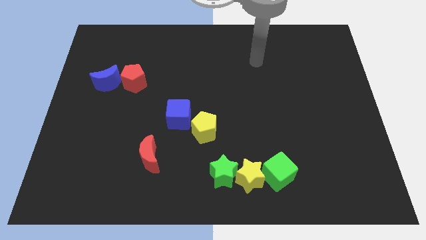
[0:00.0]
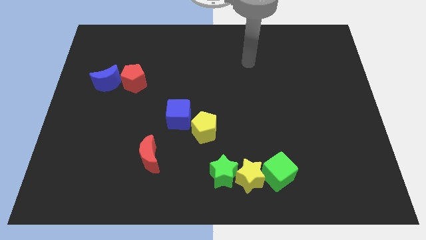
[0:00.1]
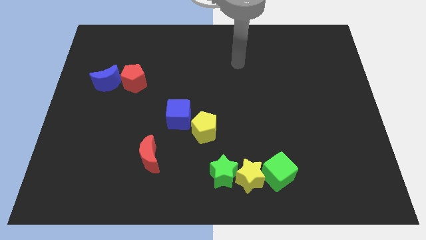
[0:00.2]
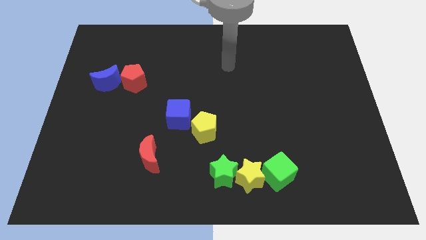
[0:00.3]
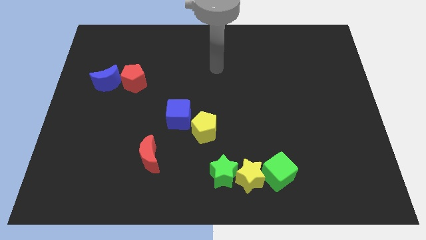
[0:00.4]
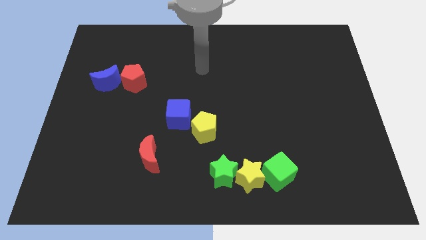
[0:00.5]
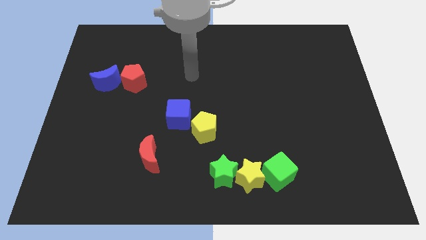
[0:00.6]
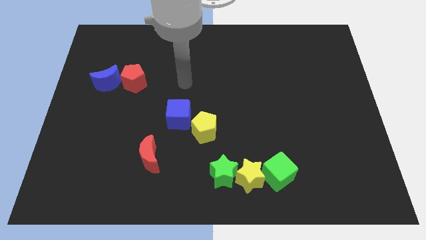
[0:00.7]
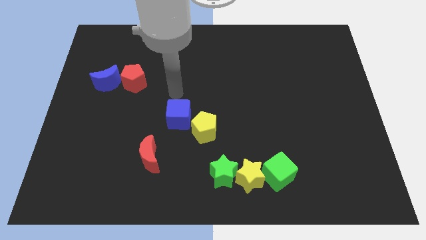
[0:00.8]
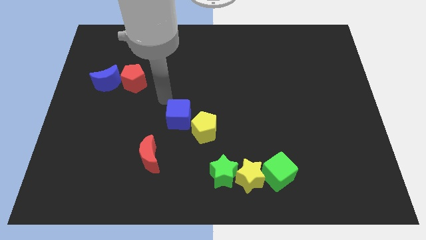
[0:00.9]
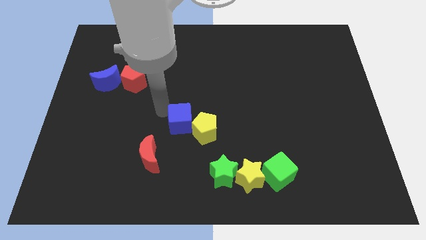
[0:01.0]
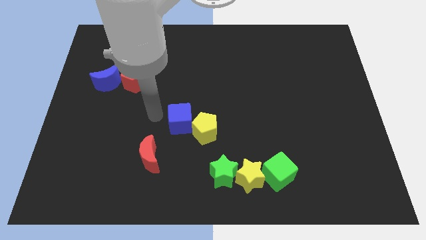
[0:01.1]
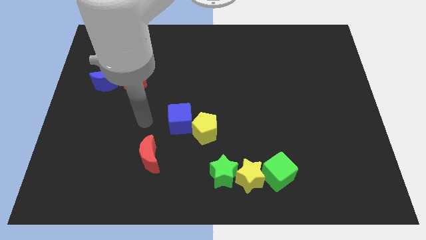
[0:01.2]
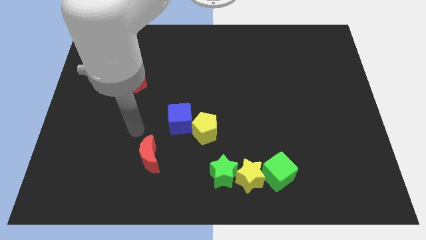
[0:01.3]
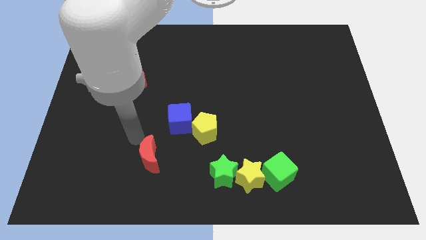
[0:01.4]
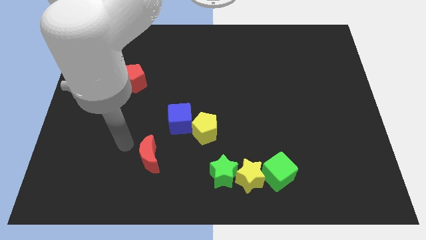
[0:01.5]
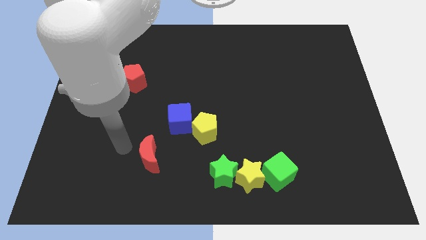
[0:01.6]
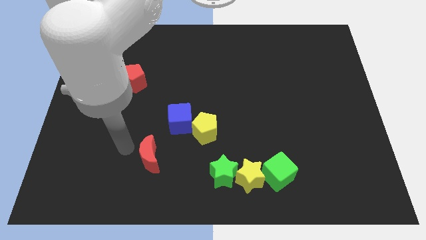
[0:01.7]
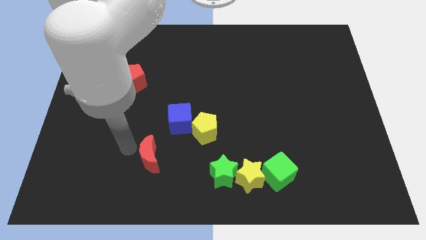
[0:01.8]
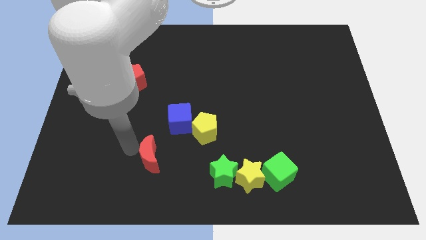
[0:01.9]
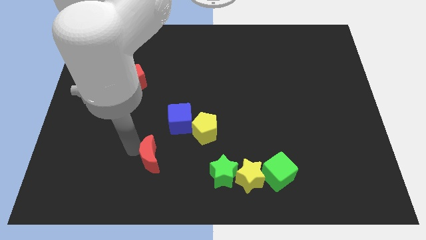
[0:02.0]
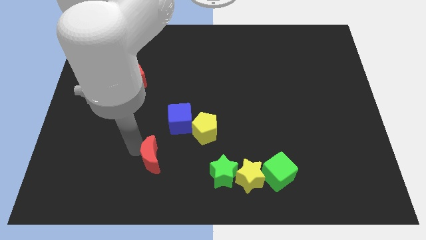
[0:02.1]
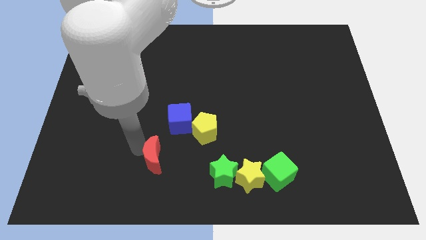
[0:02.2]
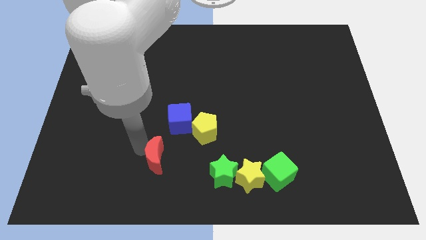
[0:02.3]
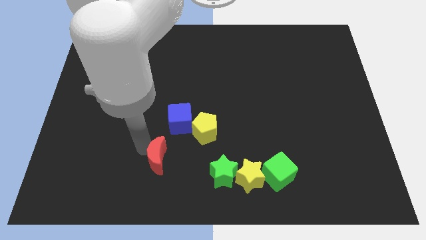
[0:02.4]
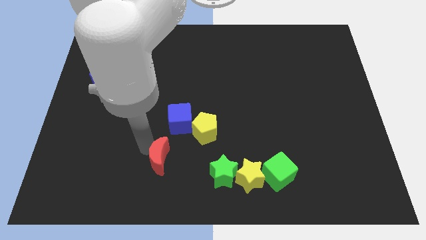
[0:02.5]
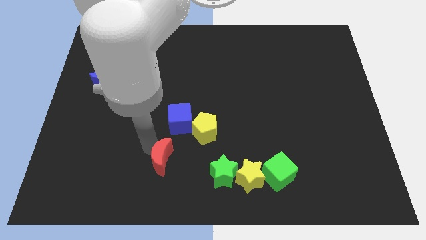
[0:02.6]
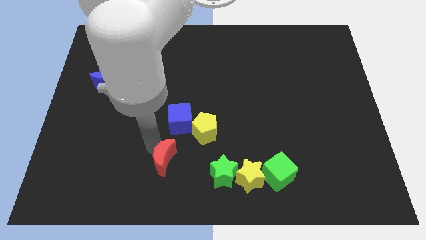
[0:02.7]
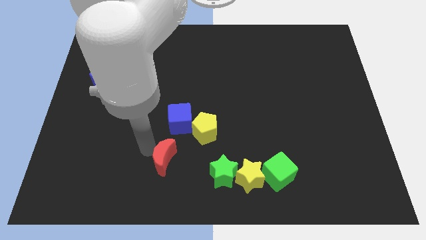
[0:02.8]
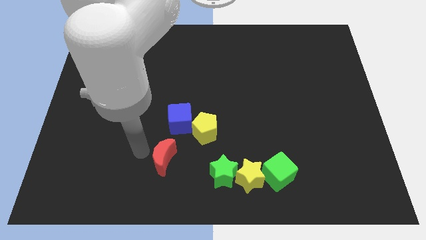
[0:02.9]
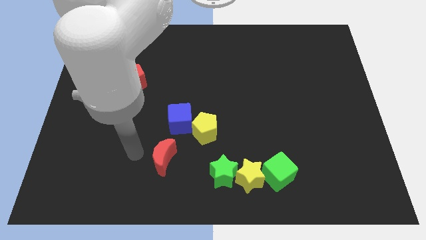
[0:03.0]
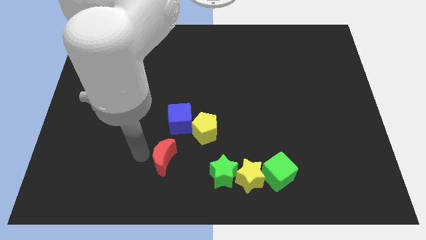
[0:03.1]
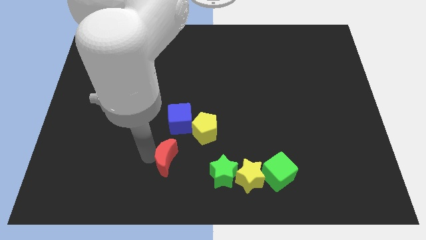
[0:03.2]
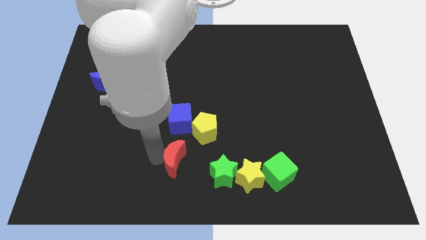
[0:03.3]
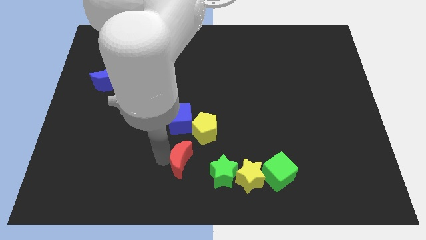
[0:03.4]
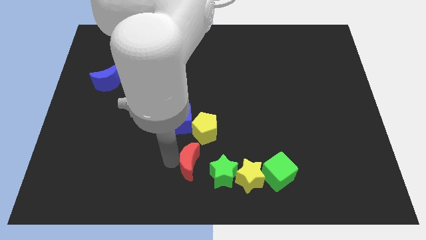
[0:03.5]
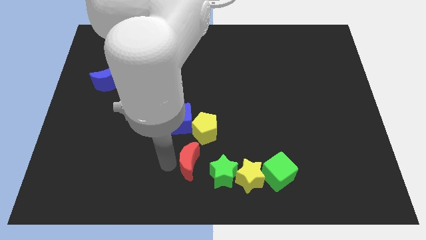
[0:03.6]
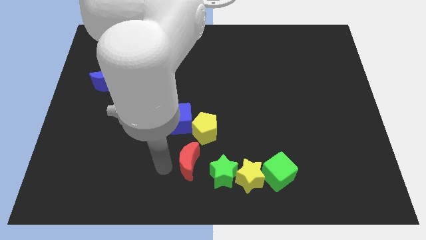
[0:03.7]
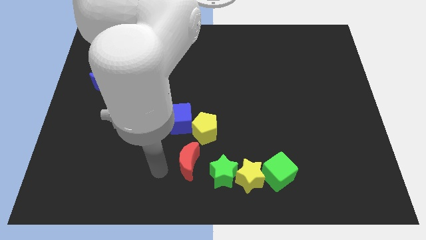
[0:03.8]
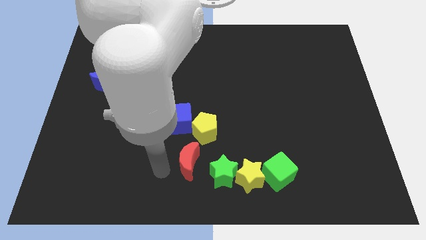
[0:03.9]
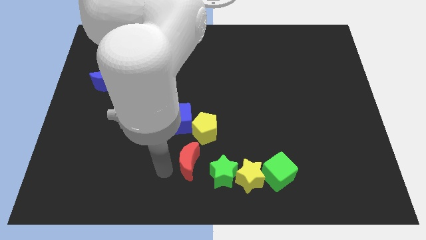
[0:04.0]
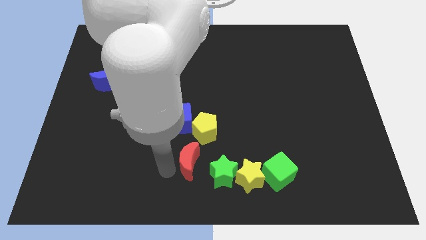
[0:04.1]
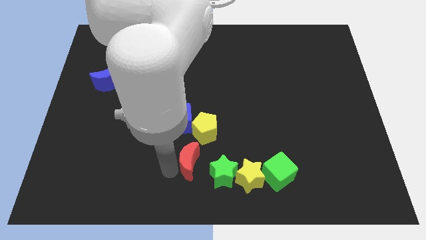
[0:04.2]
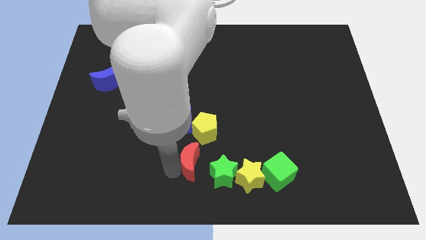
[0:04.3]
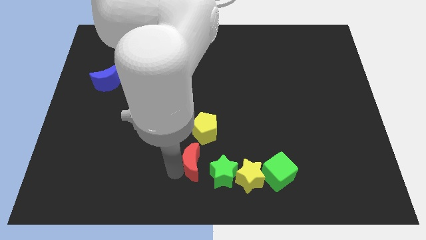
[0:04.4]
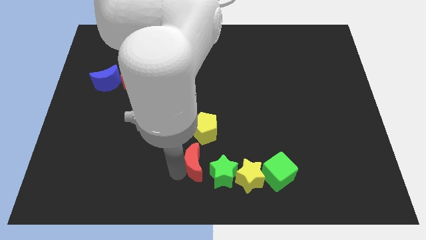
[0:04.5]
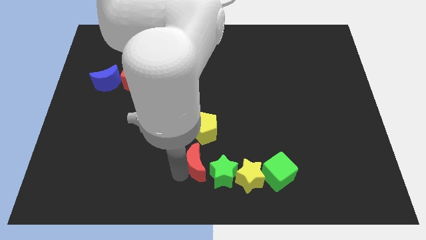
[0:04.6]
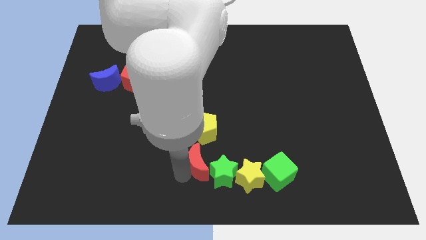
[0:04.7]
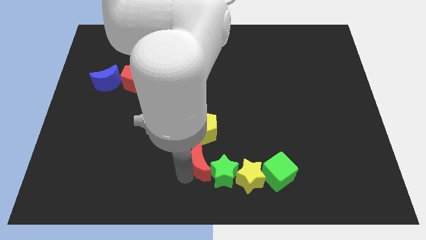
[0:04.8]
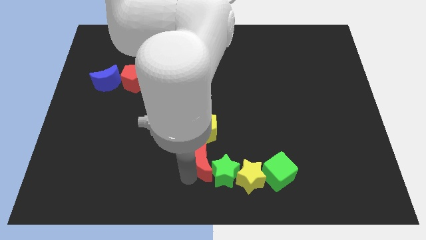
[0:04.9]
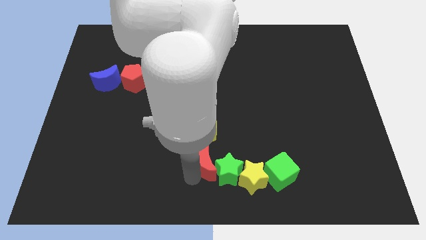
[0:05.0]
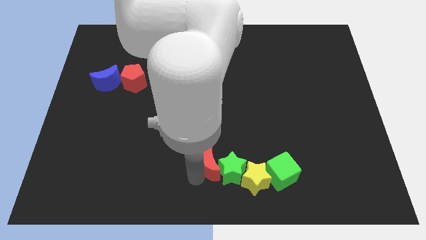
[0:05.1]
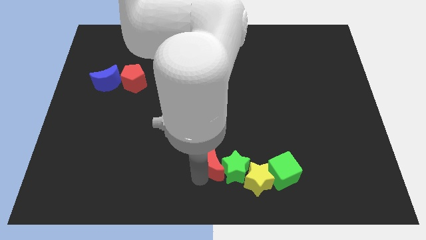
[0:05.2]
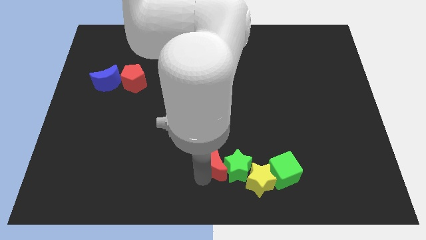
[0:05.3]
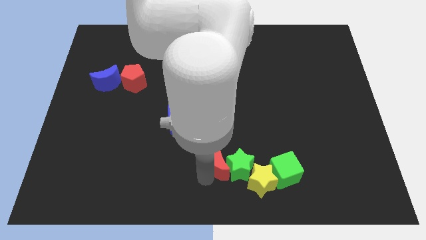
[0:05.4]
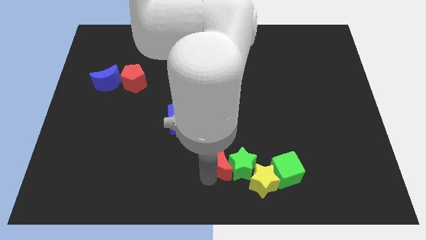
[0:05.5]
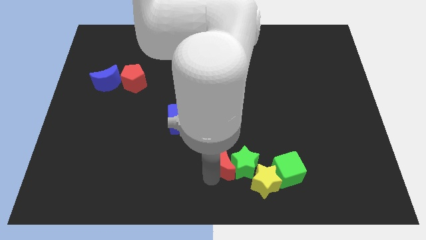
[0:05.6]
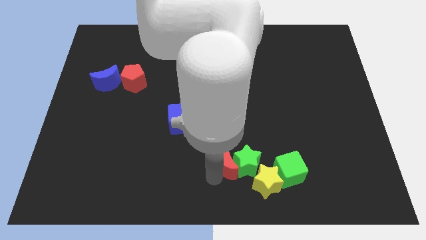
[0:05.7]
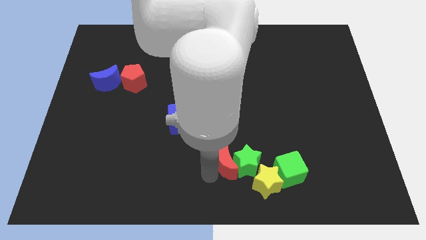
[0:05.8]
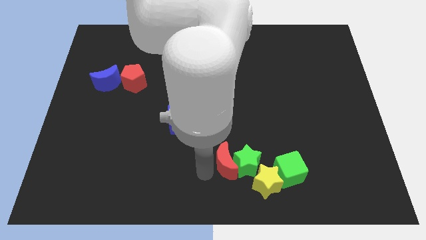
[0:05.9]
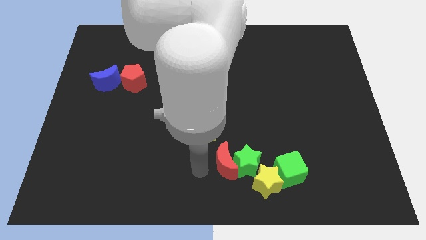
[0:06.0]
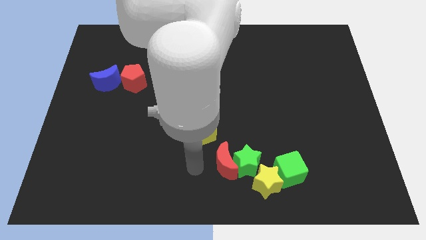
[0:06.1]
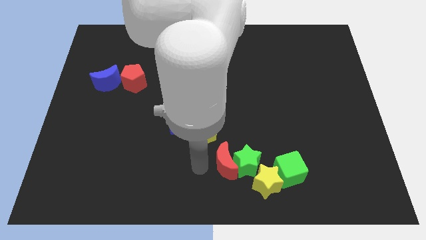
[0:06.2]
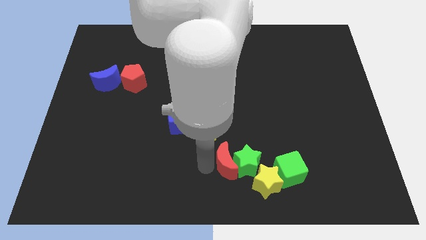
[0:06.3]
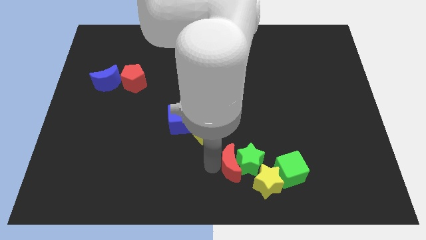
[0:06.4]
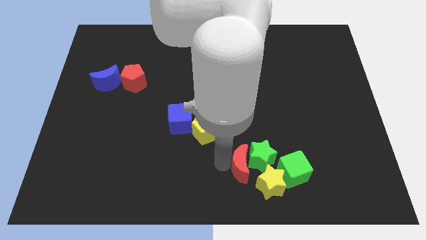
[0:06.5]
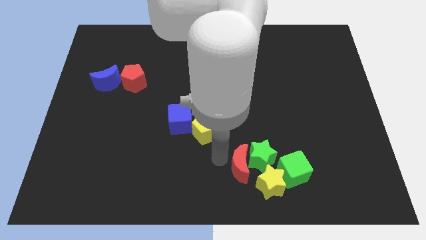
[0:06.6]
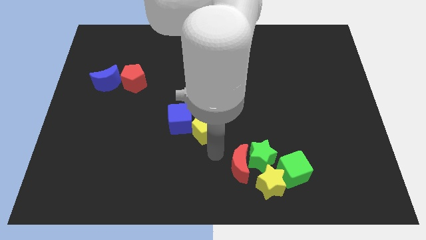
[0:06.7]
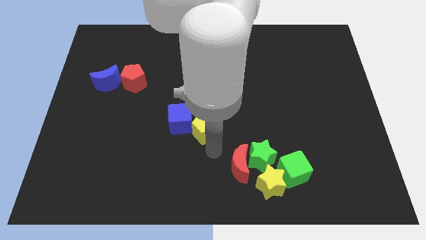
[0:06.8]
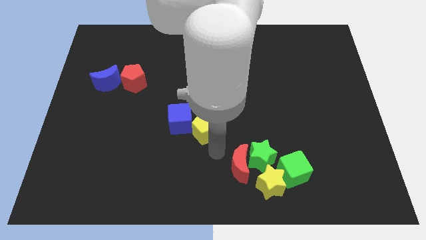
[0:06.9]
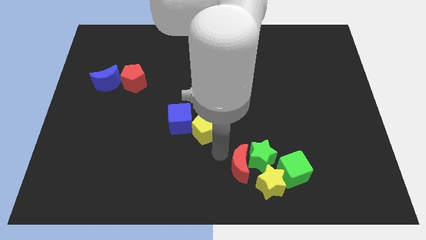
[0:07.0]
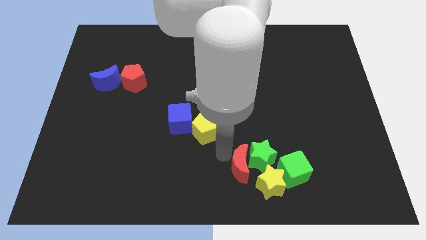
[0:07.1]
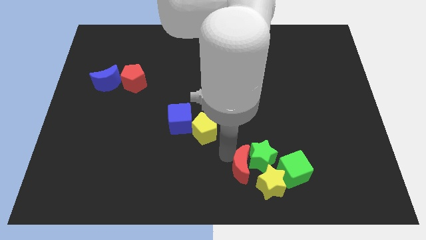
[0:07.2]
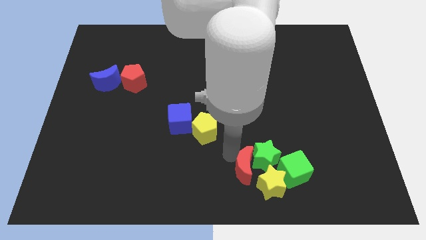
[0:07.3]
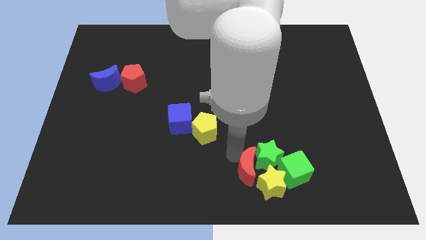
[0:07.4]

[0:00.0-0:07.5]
put the red moon towards the yellow star

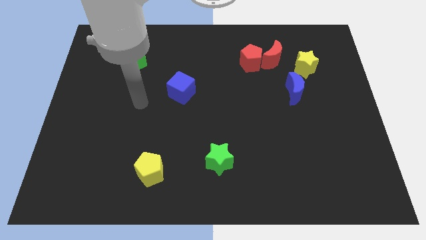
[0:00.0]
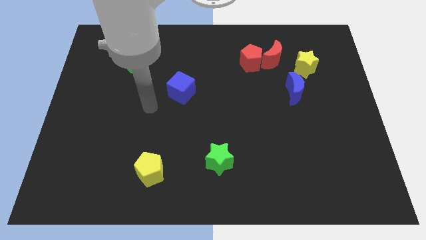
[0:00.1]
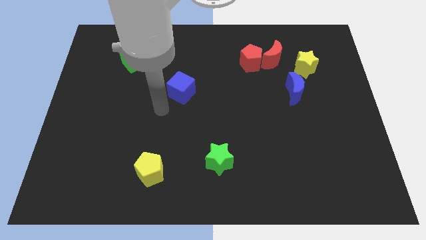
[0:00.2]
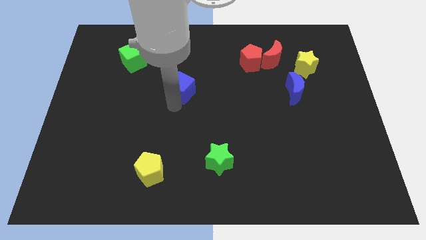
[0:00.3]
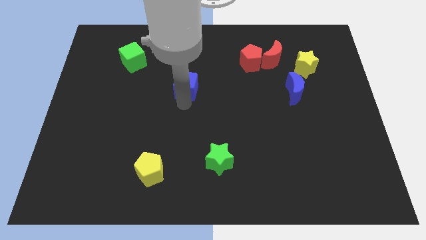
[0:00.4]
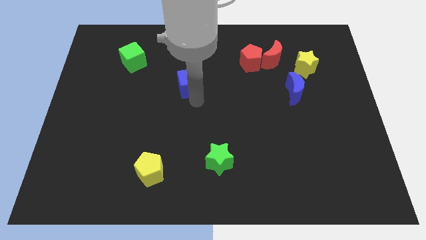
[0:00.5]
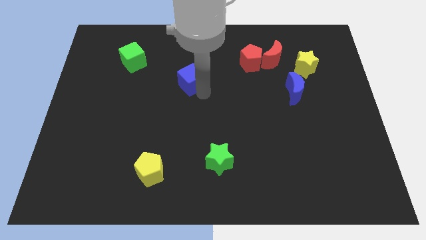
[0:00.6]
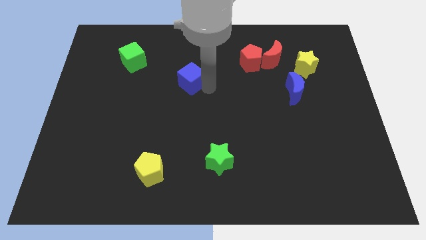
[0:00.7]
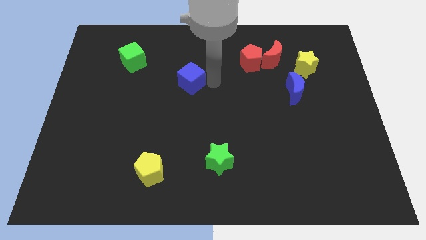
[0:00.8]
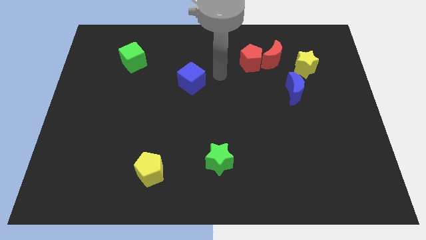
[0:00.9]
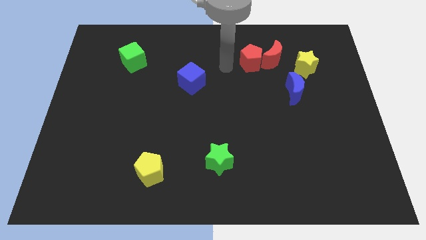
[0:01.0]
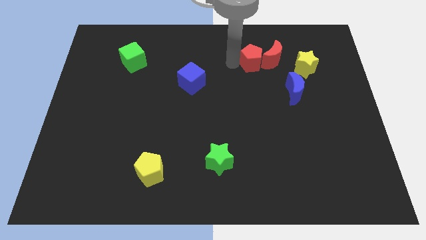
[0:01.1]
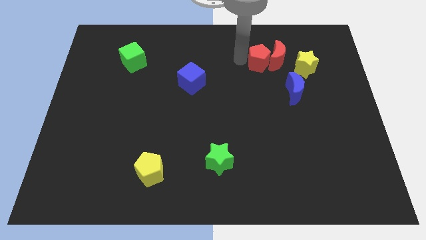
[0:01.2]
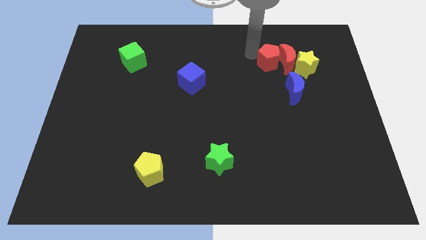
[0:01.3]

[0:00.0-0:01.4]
push the red moon close to the yellow star
